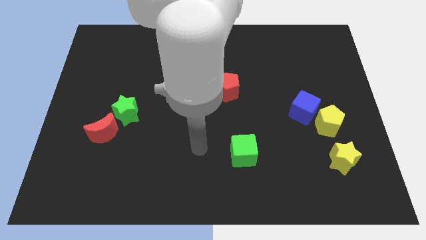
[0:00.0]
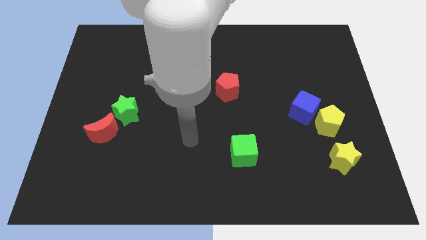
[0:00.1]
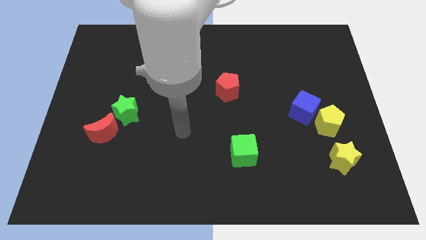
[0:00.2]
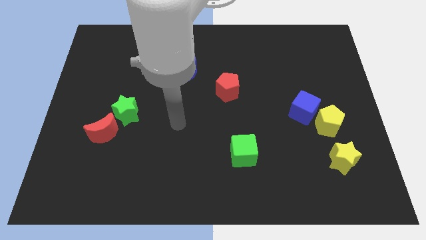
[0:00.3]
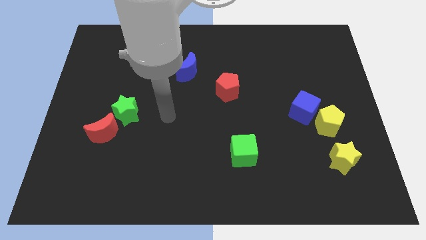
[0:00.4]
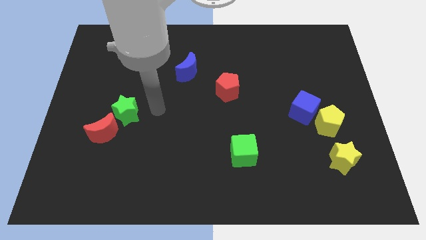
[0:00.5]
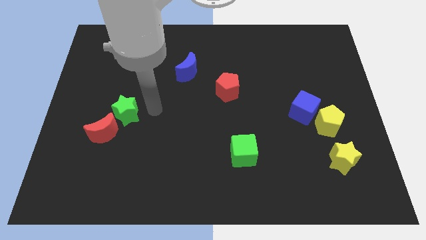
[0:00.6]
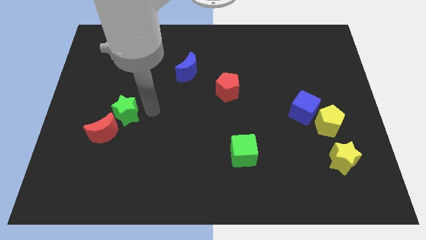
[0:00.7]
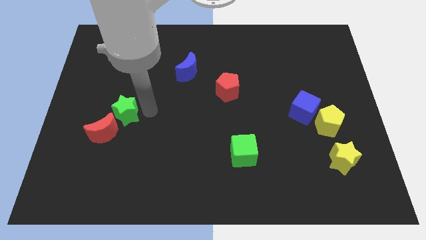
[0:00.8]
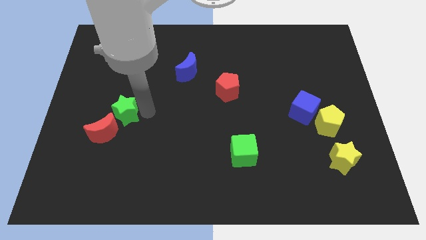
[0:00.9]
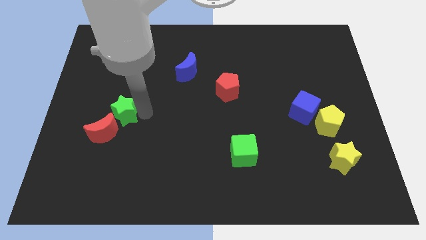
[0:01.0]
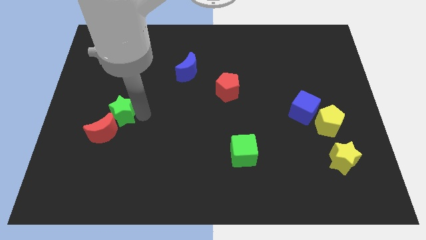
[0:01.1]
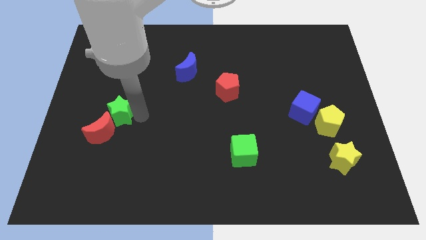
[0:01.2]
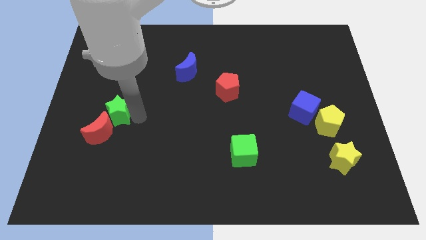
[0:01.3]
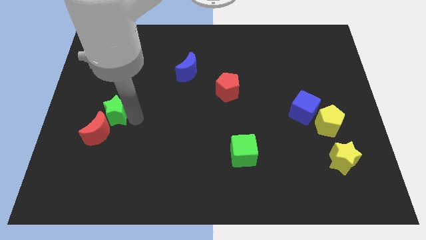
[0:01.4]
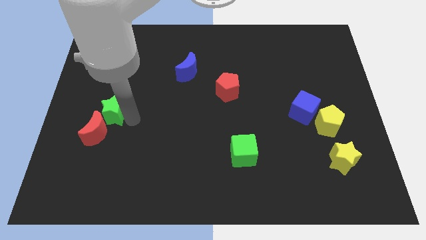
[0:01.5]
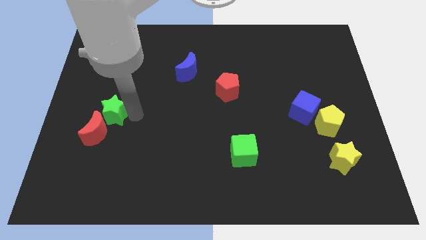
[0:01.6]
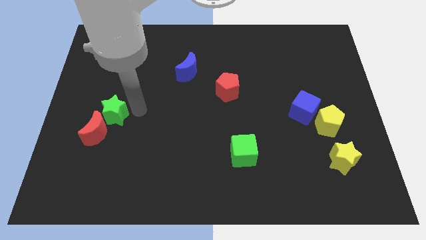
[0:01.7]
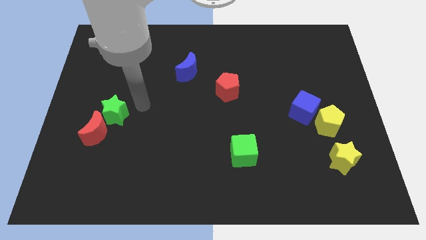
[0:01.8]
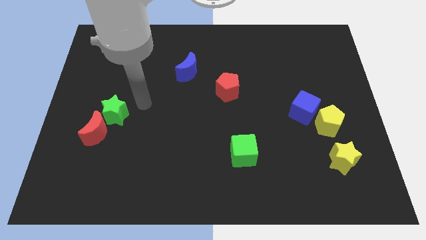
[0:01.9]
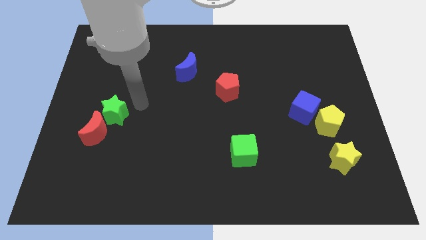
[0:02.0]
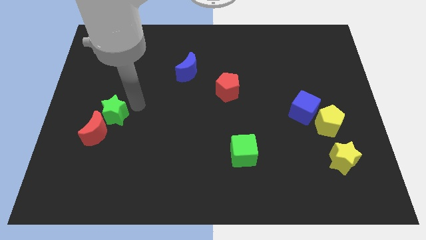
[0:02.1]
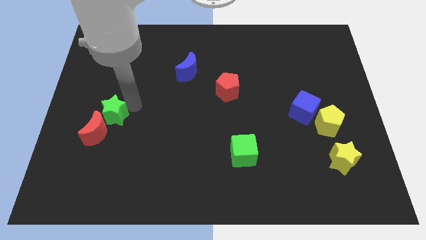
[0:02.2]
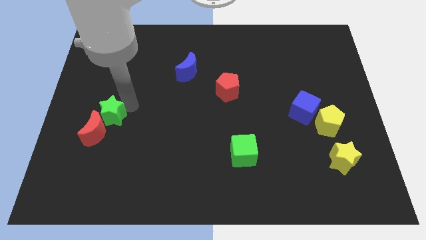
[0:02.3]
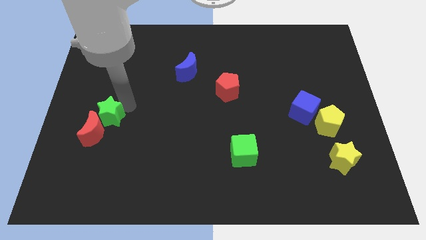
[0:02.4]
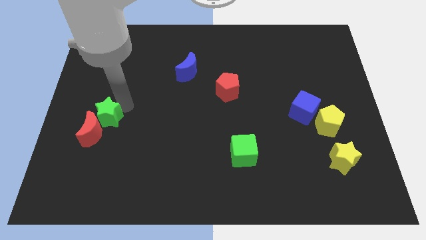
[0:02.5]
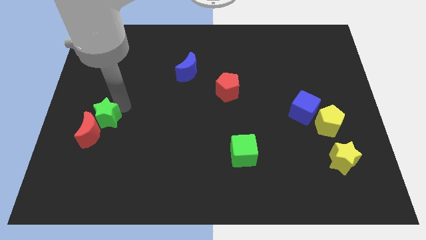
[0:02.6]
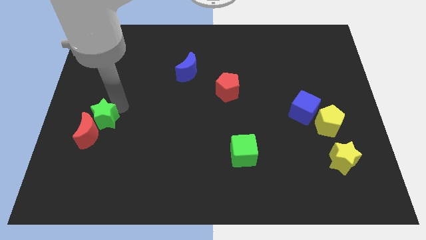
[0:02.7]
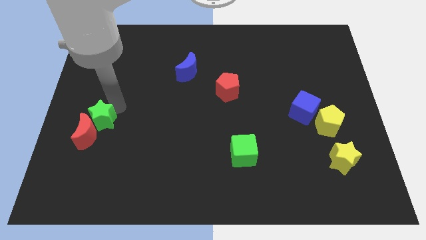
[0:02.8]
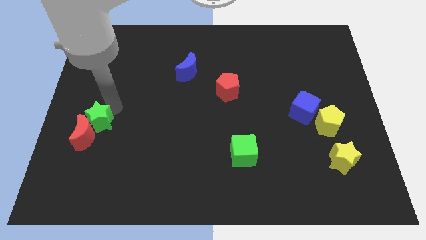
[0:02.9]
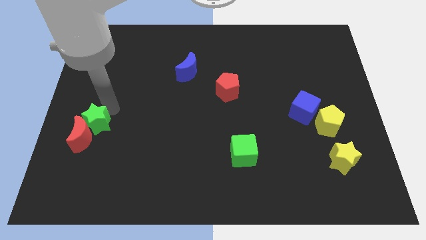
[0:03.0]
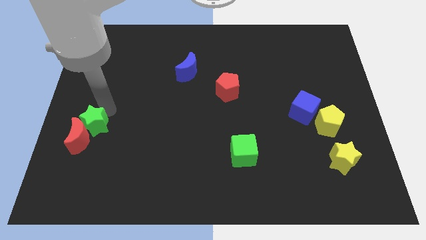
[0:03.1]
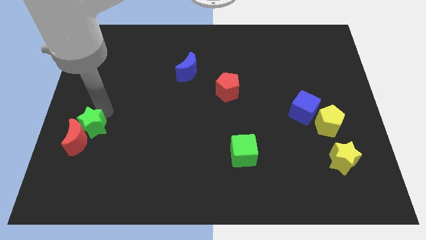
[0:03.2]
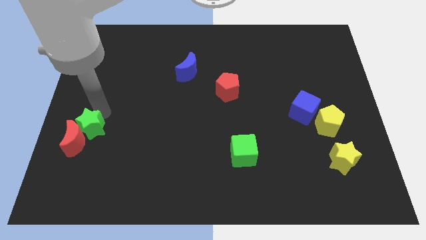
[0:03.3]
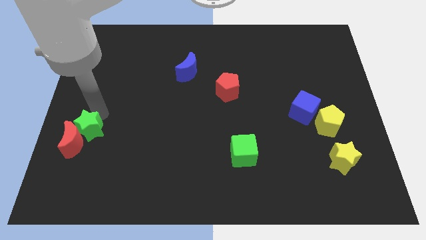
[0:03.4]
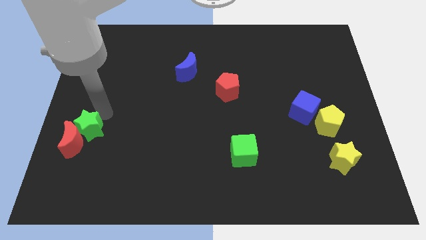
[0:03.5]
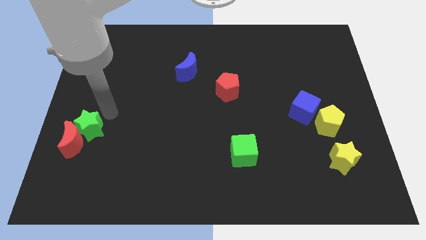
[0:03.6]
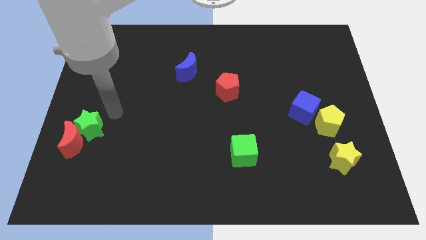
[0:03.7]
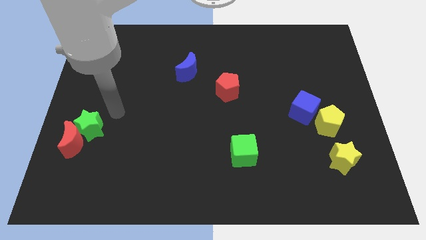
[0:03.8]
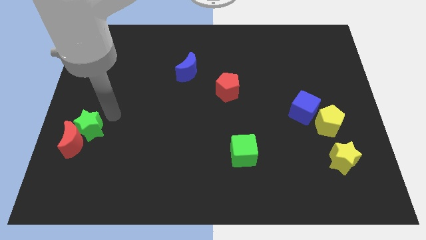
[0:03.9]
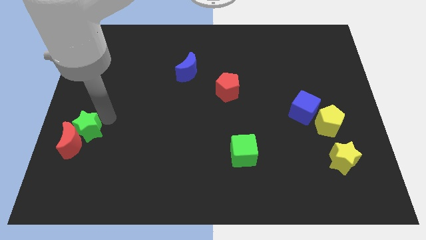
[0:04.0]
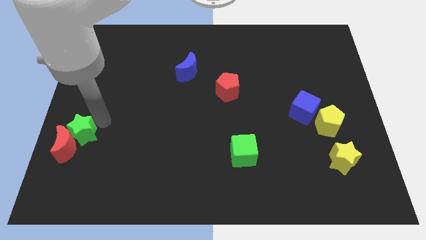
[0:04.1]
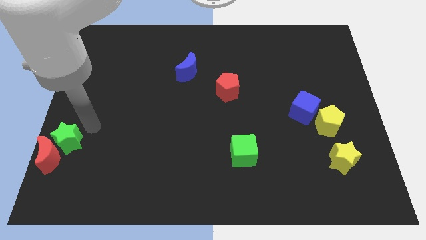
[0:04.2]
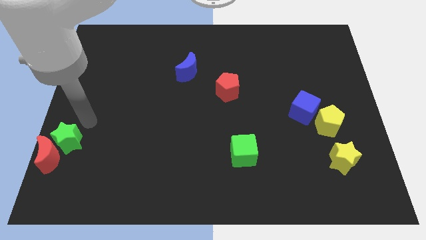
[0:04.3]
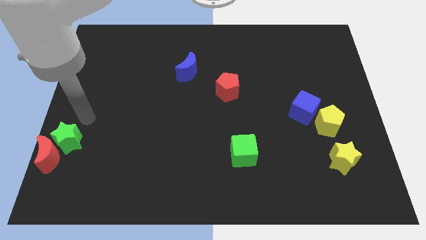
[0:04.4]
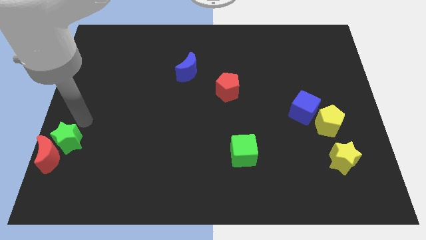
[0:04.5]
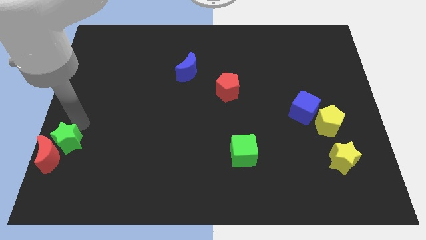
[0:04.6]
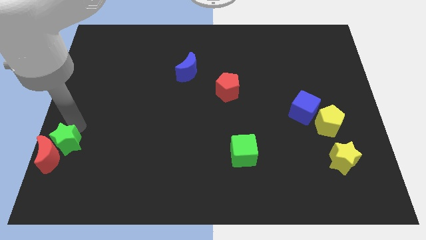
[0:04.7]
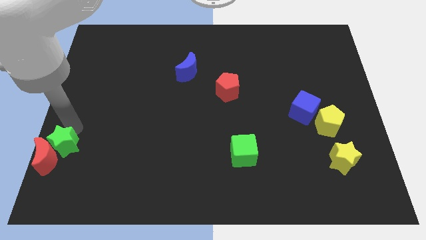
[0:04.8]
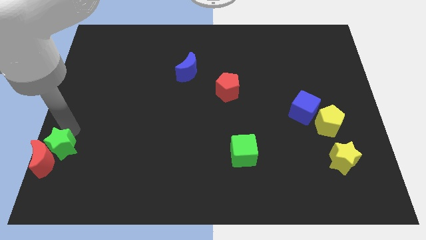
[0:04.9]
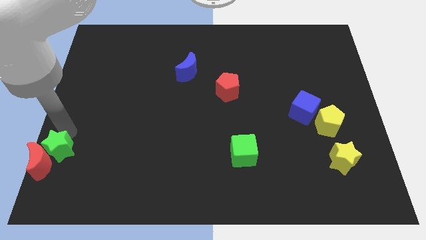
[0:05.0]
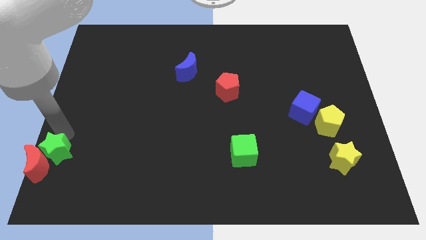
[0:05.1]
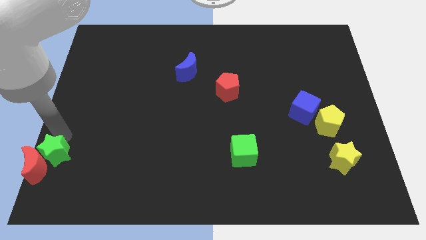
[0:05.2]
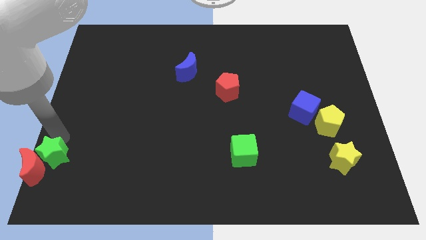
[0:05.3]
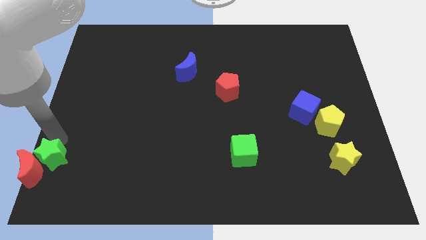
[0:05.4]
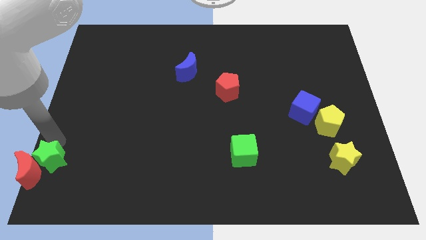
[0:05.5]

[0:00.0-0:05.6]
push the green star to the lower left corner
